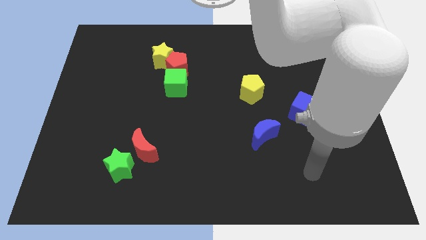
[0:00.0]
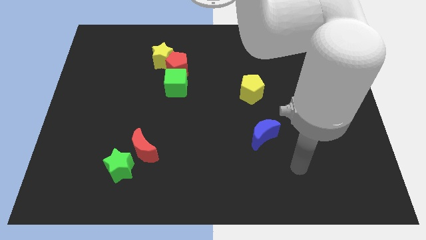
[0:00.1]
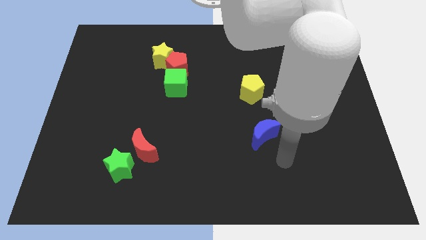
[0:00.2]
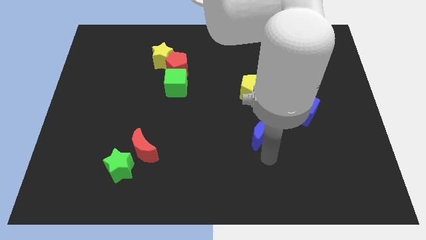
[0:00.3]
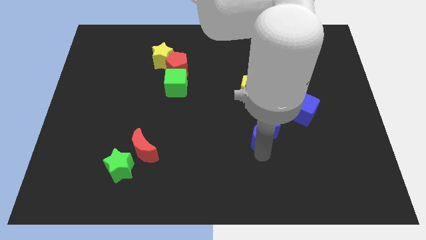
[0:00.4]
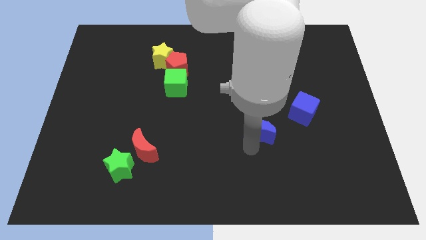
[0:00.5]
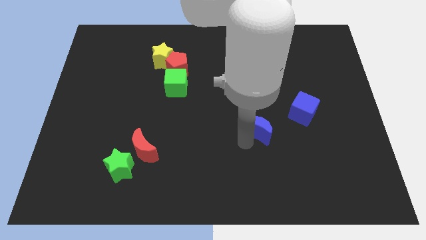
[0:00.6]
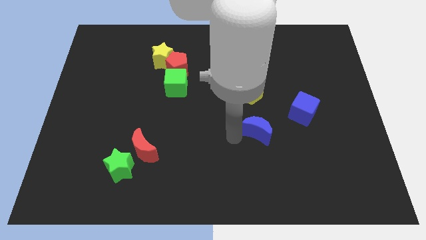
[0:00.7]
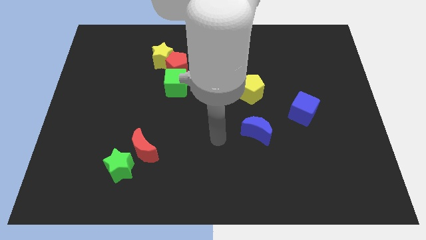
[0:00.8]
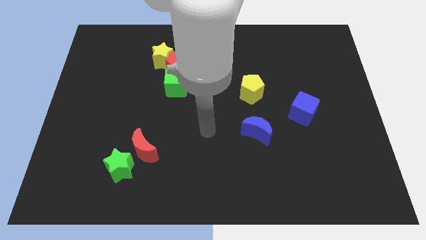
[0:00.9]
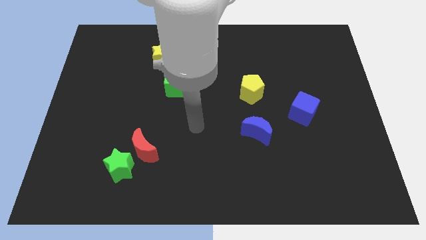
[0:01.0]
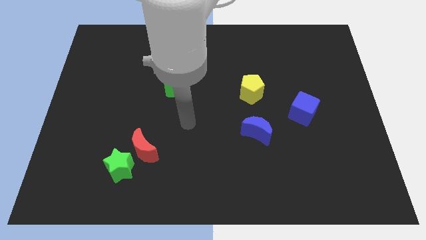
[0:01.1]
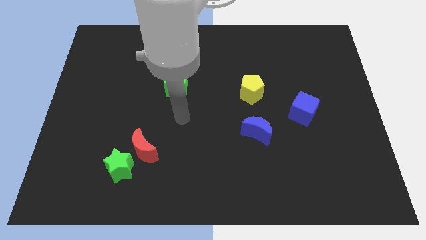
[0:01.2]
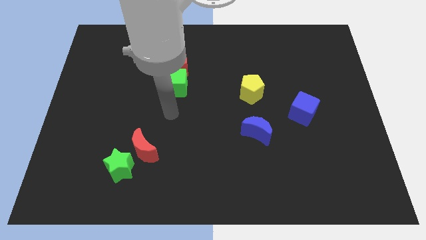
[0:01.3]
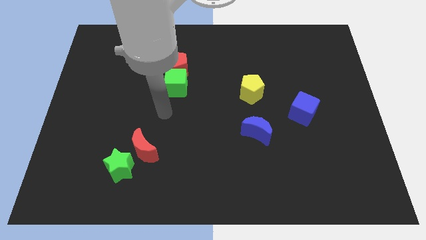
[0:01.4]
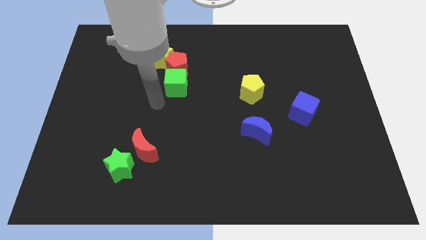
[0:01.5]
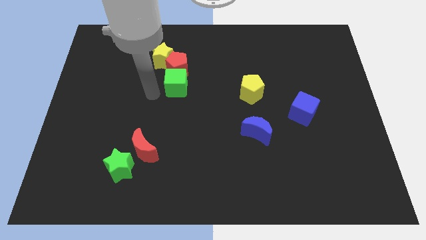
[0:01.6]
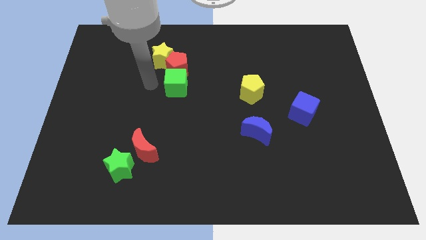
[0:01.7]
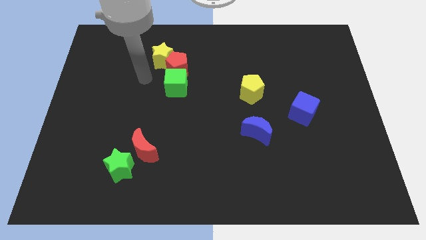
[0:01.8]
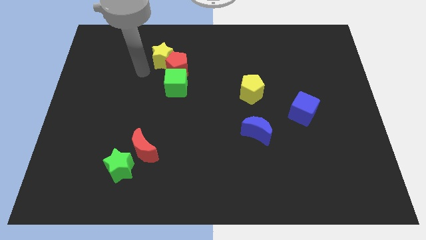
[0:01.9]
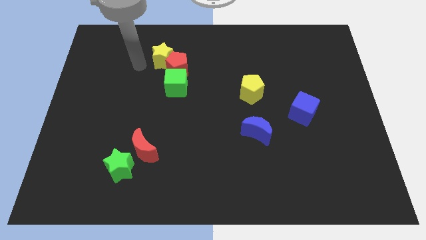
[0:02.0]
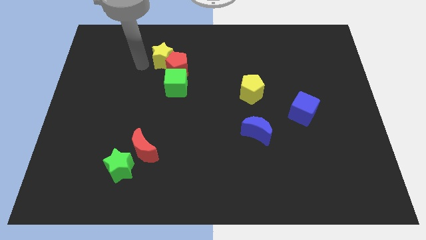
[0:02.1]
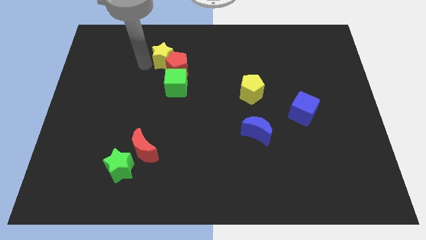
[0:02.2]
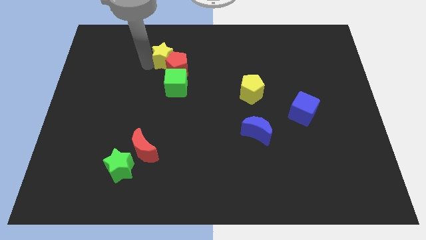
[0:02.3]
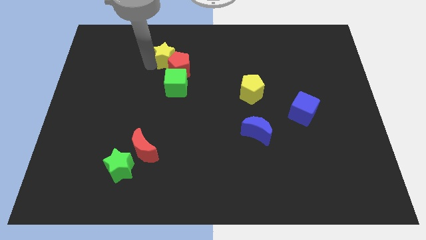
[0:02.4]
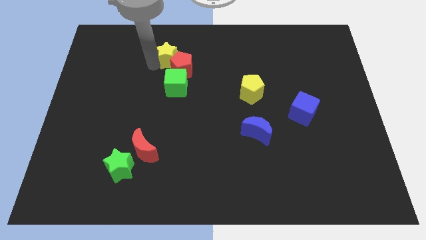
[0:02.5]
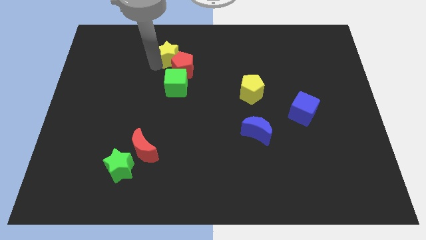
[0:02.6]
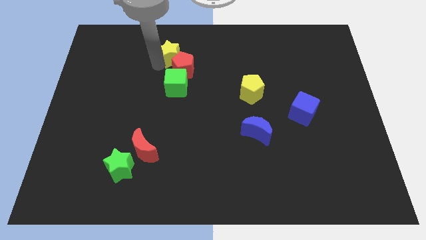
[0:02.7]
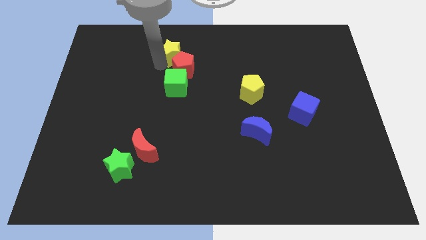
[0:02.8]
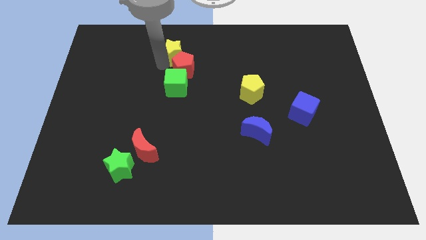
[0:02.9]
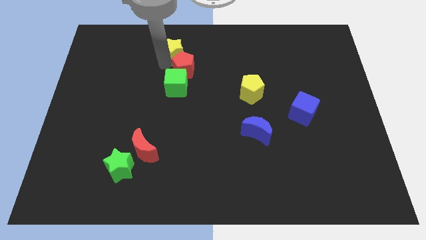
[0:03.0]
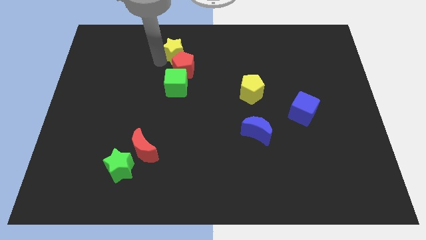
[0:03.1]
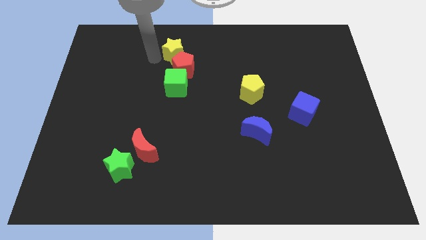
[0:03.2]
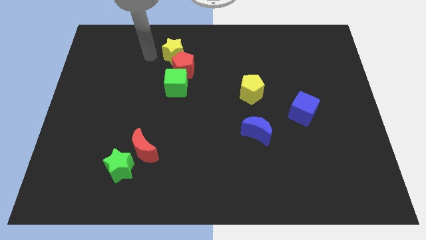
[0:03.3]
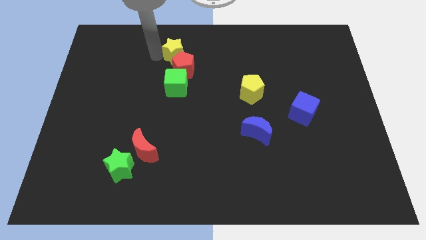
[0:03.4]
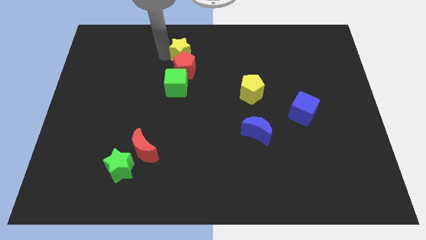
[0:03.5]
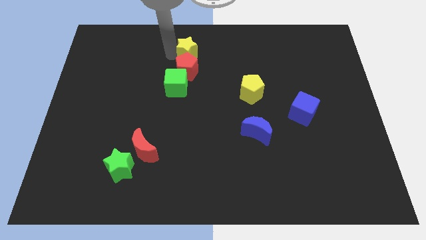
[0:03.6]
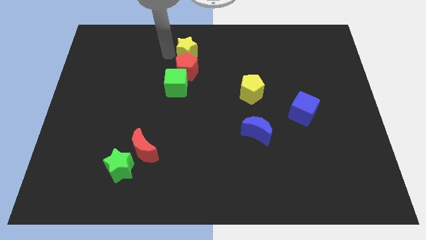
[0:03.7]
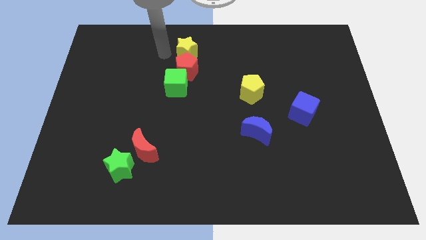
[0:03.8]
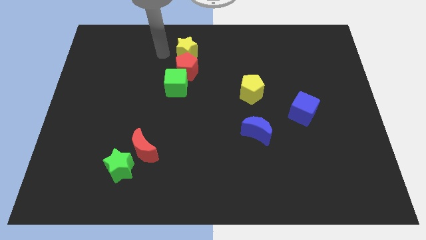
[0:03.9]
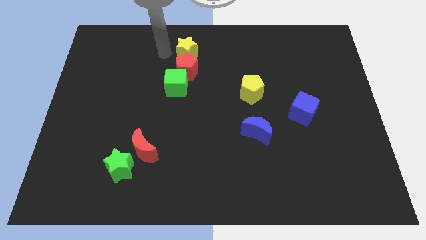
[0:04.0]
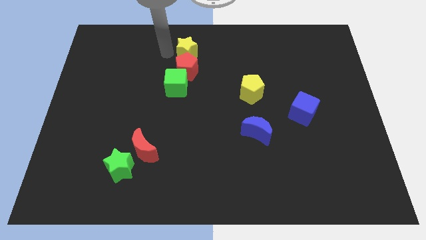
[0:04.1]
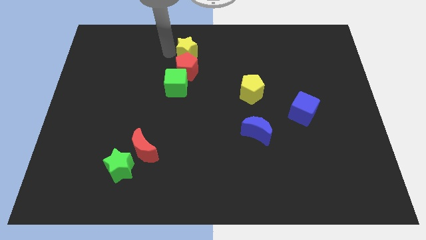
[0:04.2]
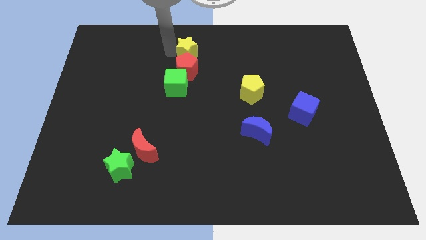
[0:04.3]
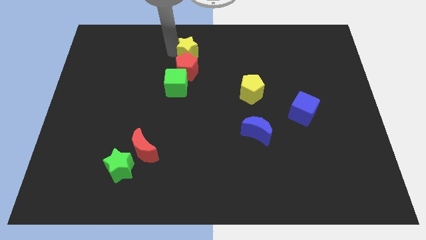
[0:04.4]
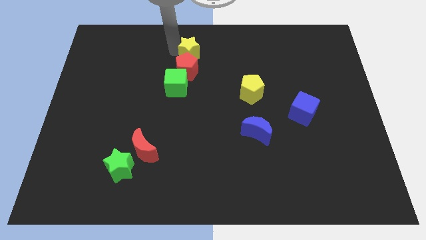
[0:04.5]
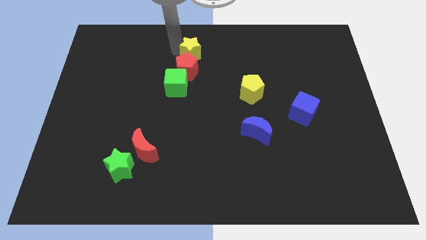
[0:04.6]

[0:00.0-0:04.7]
push the yellow star to the right a little bit

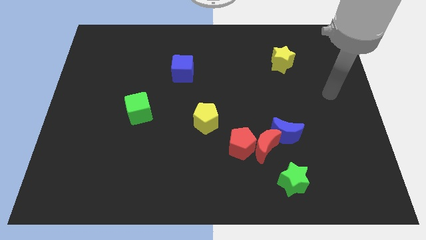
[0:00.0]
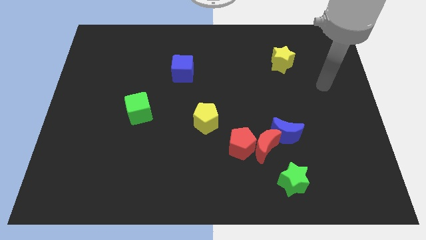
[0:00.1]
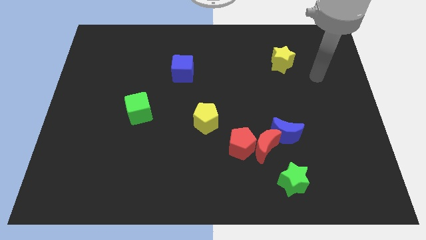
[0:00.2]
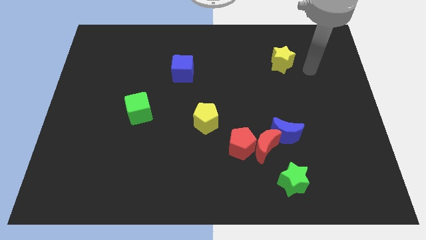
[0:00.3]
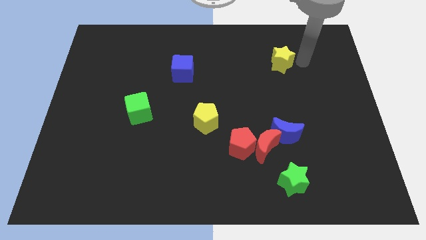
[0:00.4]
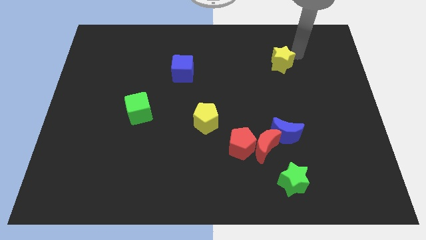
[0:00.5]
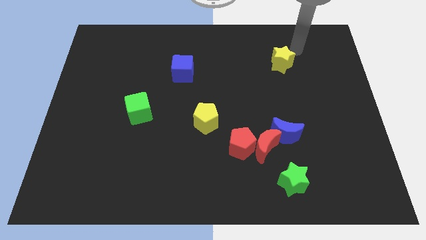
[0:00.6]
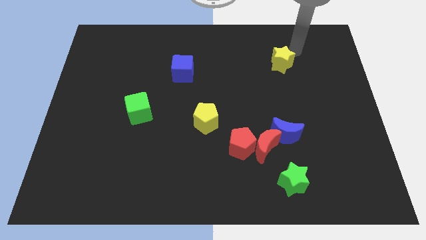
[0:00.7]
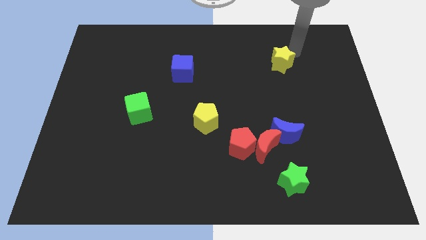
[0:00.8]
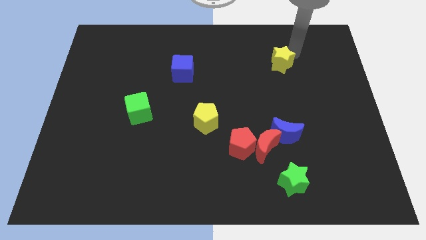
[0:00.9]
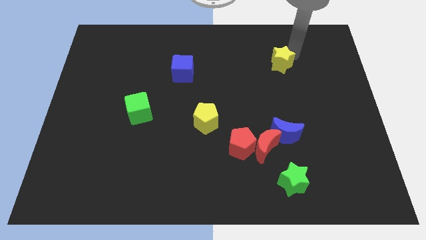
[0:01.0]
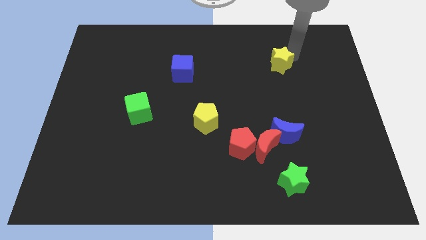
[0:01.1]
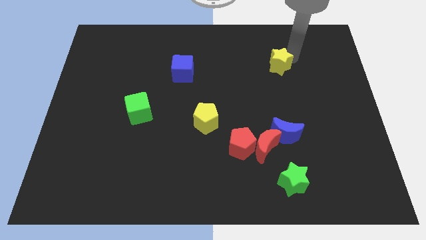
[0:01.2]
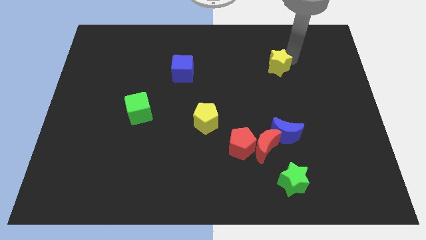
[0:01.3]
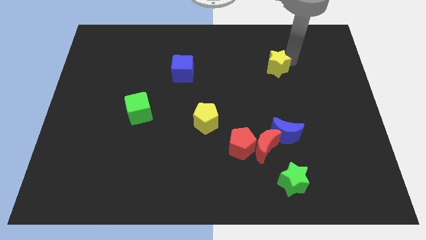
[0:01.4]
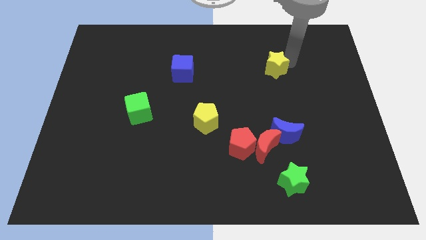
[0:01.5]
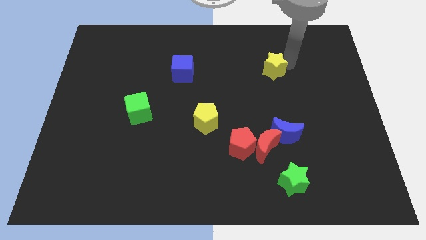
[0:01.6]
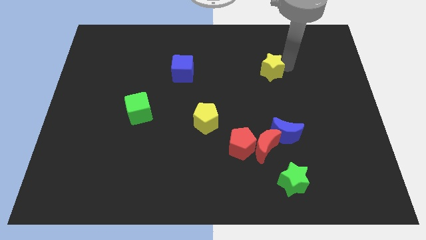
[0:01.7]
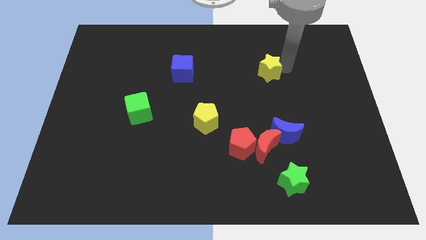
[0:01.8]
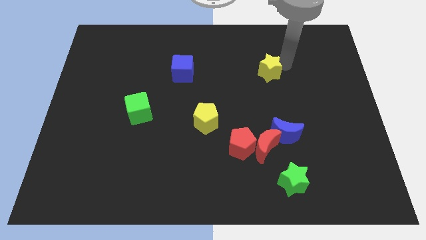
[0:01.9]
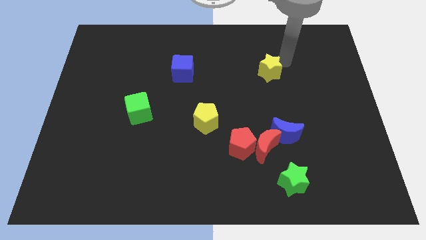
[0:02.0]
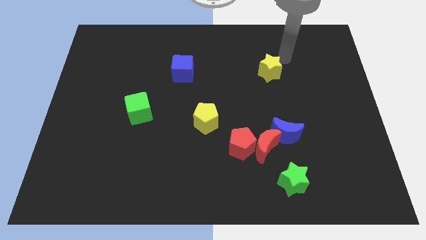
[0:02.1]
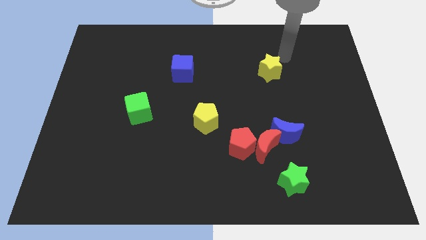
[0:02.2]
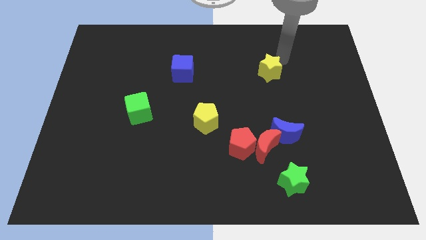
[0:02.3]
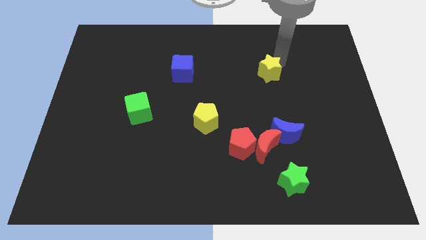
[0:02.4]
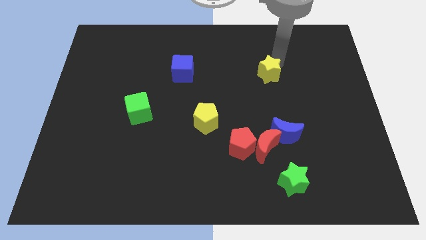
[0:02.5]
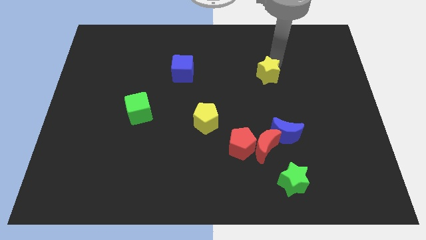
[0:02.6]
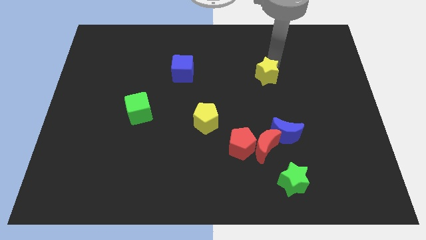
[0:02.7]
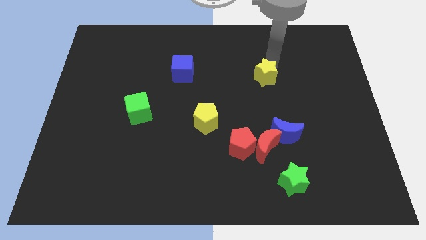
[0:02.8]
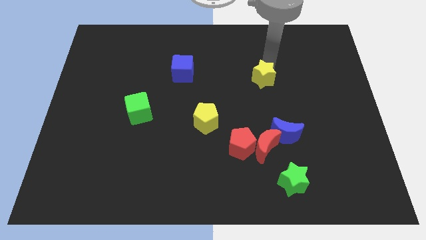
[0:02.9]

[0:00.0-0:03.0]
slide the yellow star a bit diagonally downwards and to the left

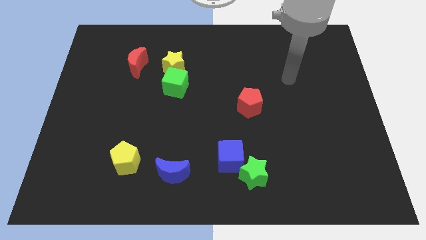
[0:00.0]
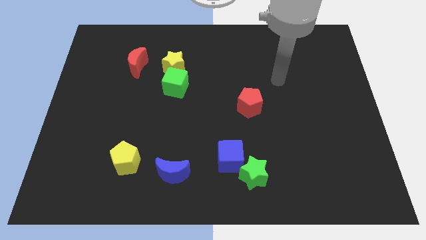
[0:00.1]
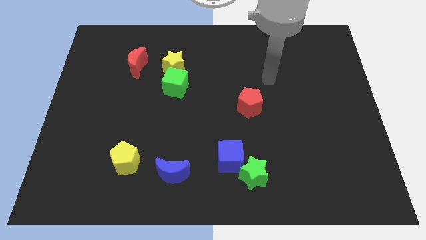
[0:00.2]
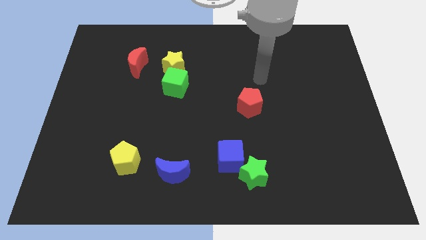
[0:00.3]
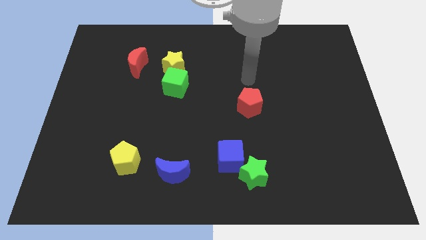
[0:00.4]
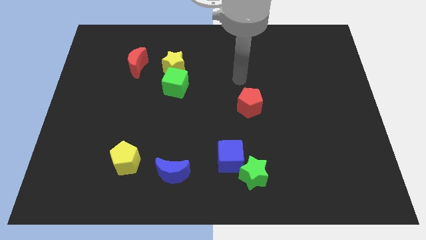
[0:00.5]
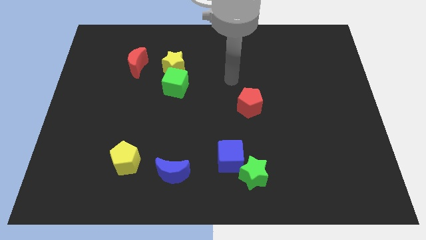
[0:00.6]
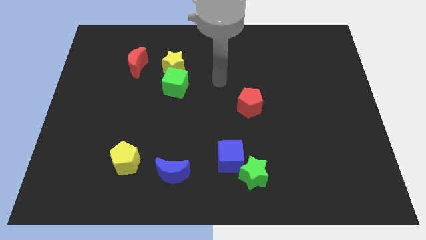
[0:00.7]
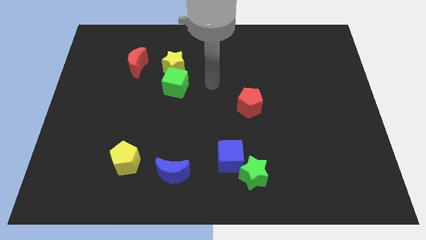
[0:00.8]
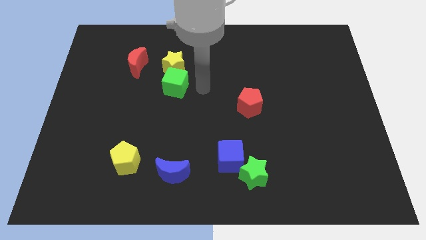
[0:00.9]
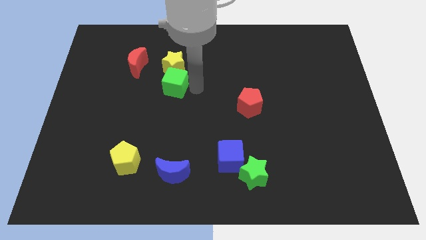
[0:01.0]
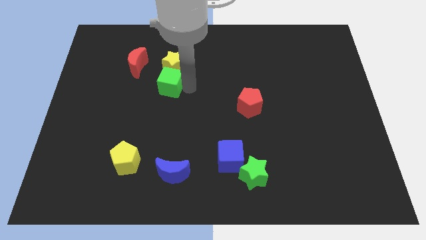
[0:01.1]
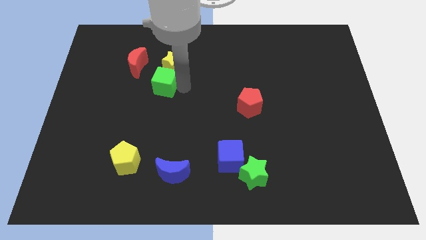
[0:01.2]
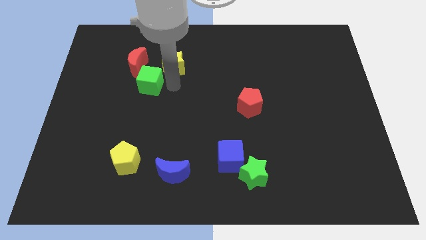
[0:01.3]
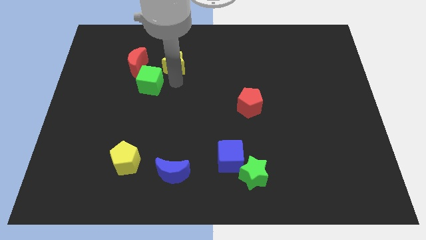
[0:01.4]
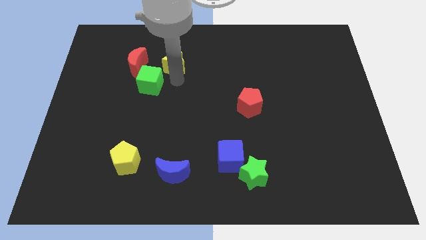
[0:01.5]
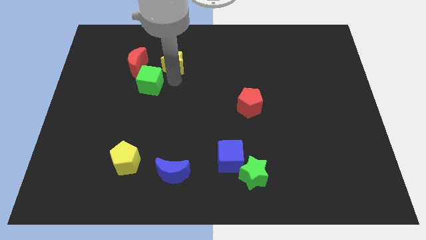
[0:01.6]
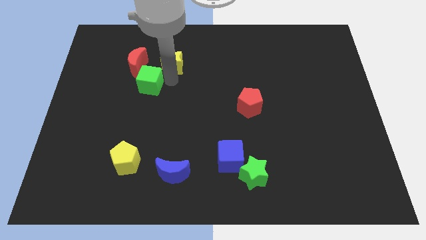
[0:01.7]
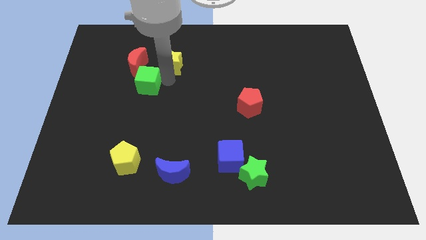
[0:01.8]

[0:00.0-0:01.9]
slide the green cube a bit to the left
